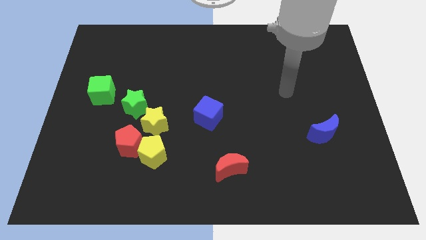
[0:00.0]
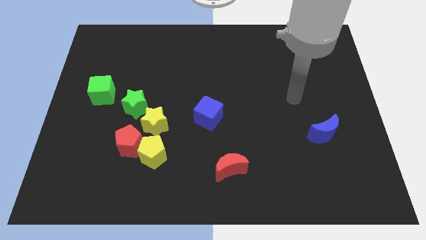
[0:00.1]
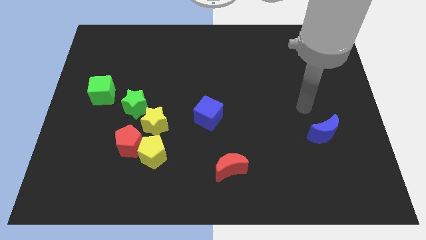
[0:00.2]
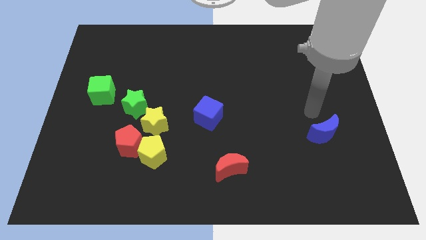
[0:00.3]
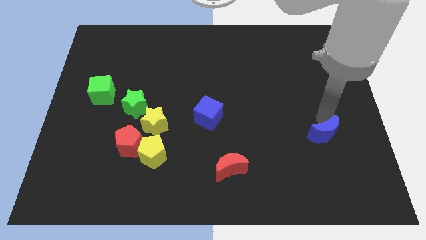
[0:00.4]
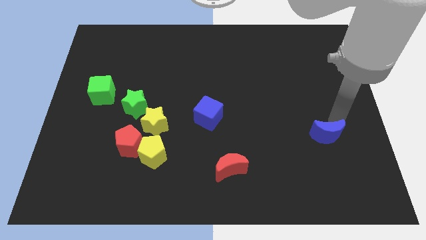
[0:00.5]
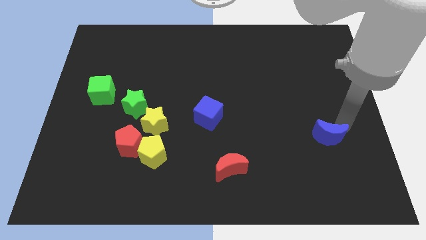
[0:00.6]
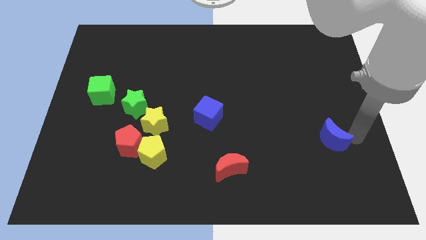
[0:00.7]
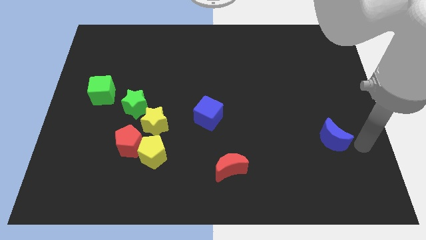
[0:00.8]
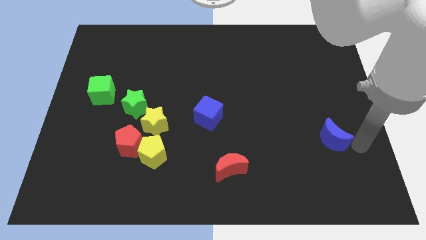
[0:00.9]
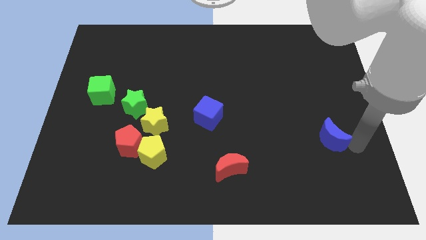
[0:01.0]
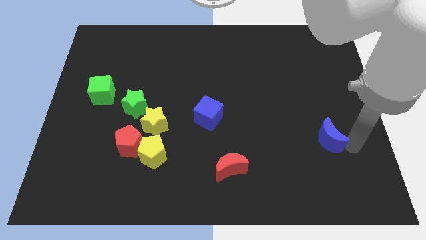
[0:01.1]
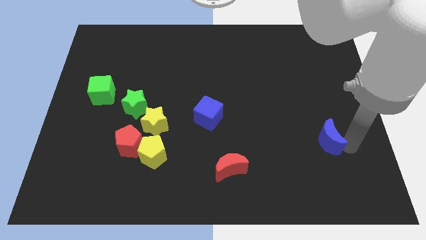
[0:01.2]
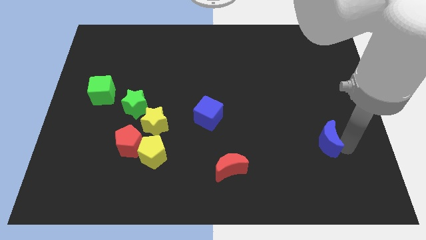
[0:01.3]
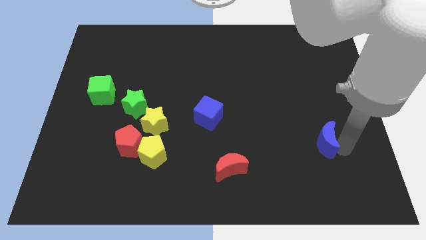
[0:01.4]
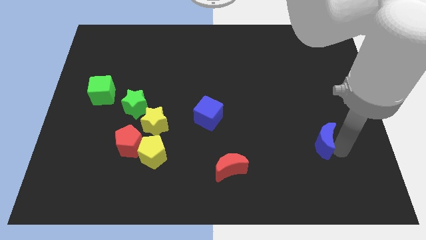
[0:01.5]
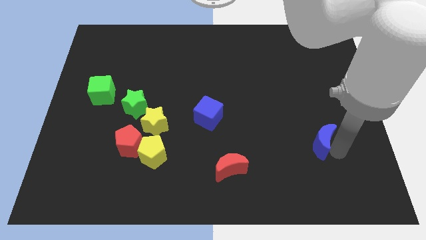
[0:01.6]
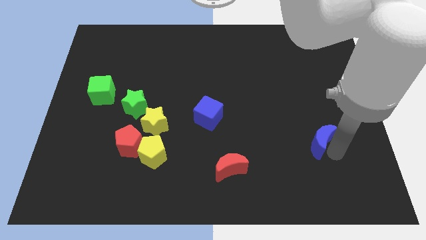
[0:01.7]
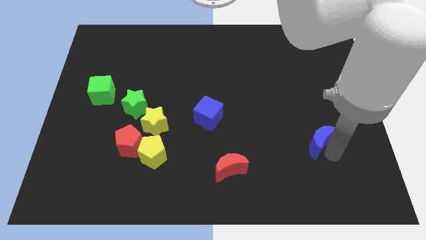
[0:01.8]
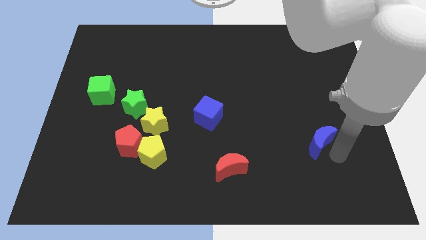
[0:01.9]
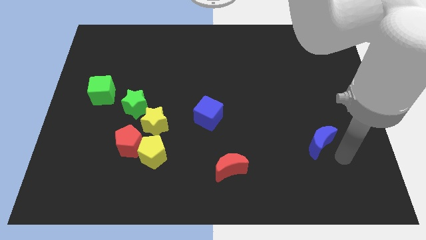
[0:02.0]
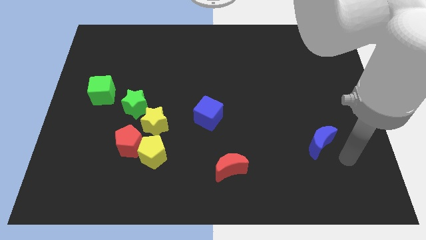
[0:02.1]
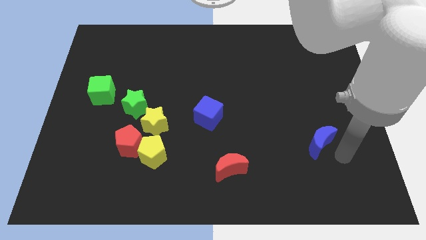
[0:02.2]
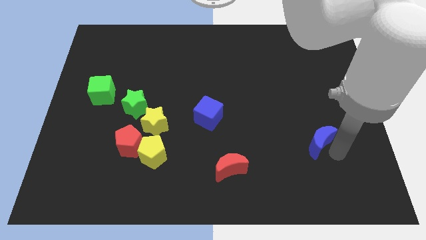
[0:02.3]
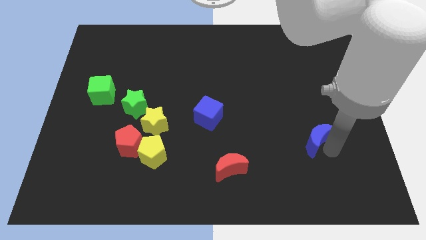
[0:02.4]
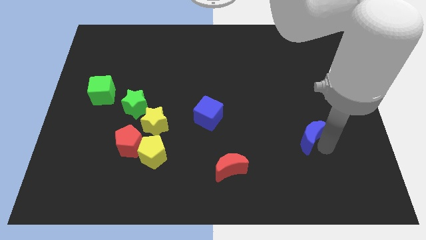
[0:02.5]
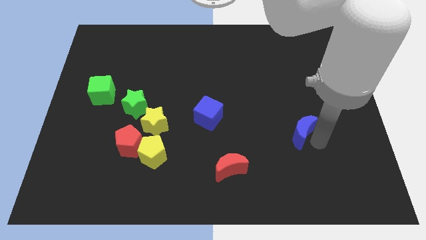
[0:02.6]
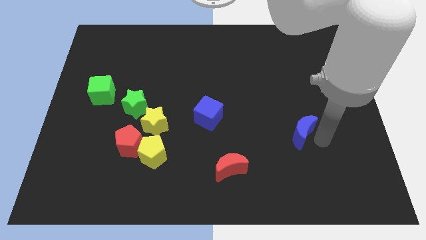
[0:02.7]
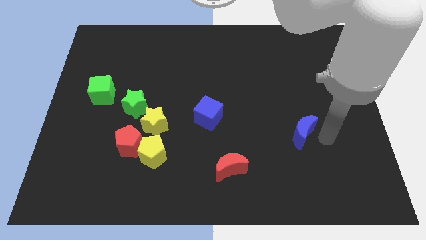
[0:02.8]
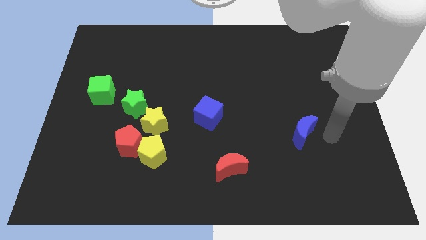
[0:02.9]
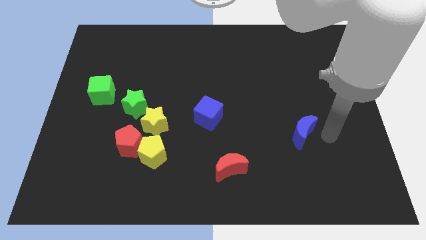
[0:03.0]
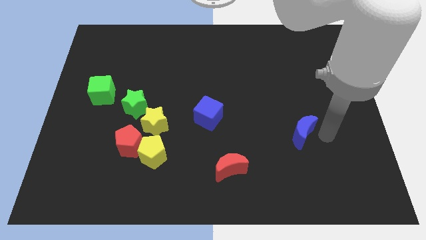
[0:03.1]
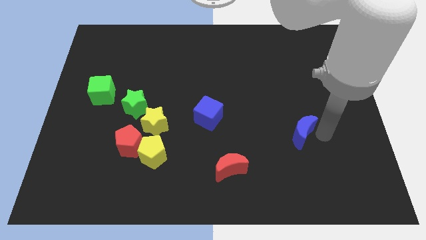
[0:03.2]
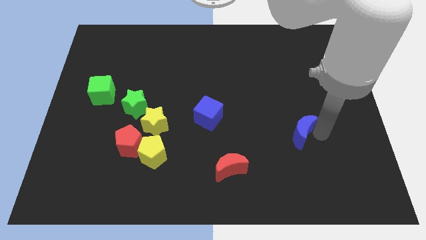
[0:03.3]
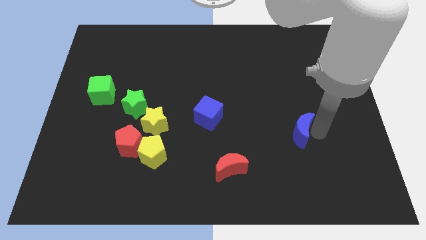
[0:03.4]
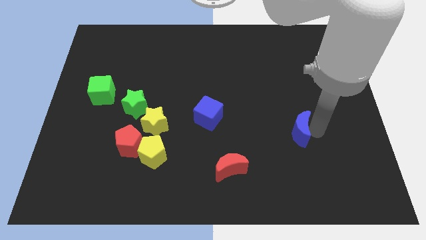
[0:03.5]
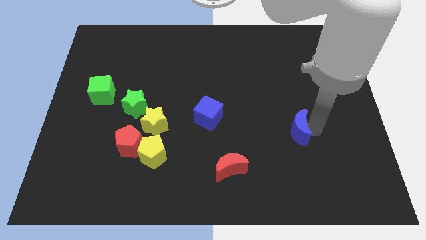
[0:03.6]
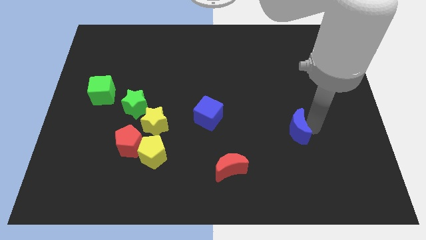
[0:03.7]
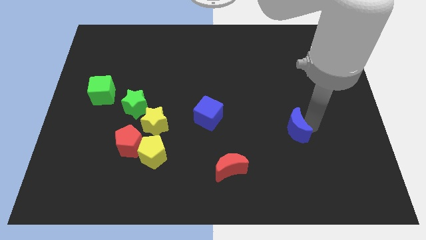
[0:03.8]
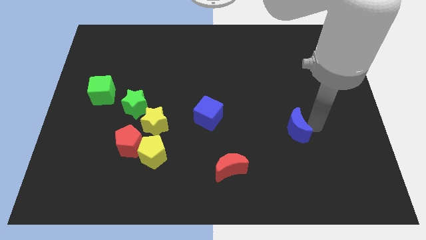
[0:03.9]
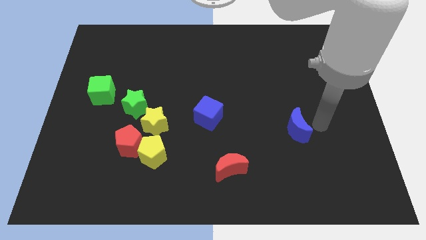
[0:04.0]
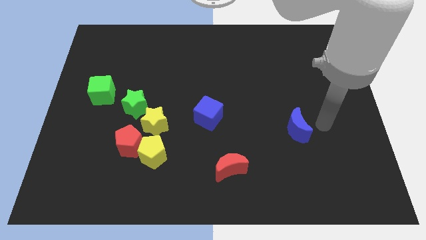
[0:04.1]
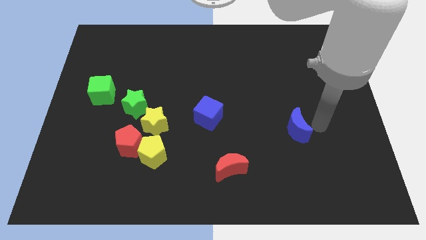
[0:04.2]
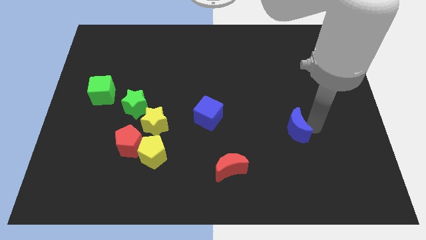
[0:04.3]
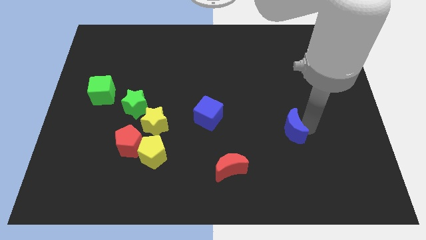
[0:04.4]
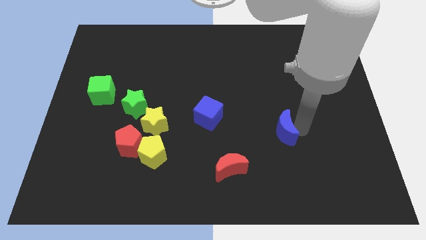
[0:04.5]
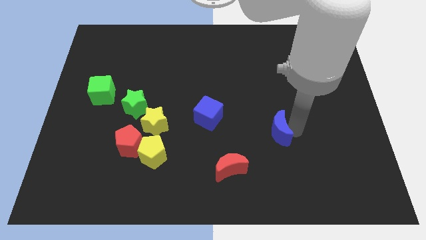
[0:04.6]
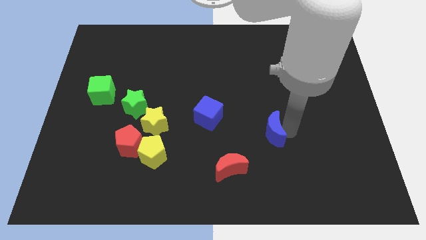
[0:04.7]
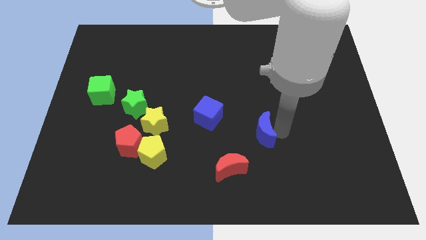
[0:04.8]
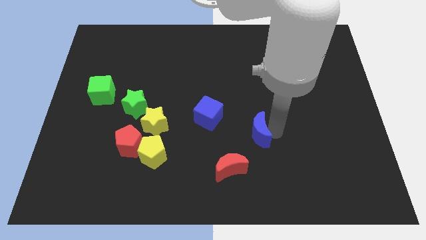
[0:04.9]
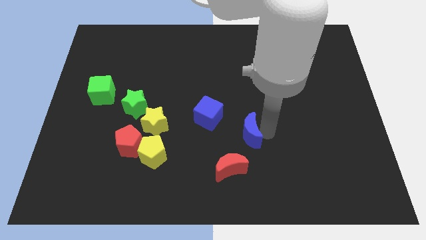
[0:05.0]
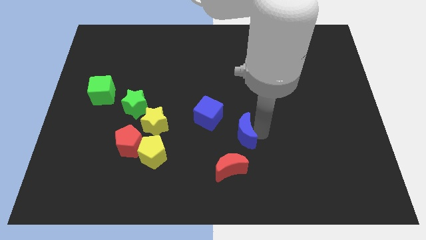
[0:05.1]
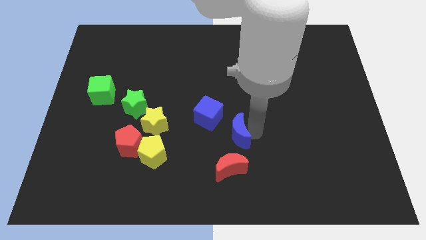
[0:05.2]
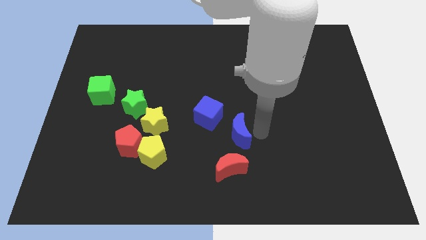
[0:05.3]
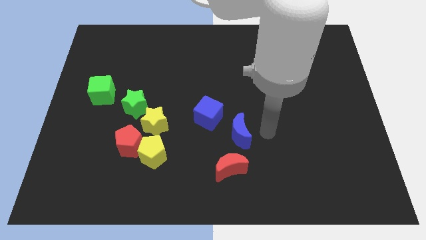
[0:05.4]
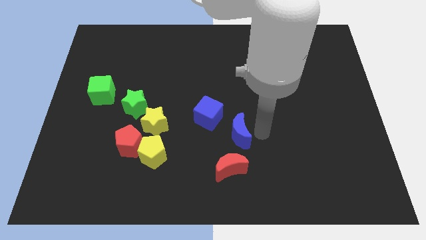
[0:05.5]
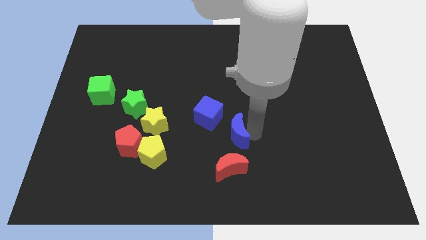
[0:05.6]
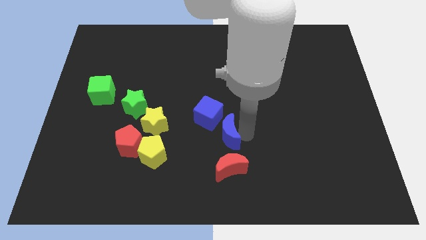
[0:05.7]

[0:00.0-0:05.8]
push the blue moon left

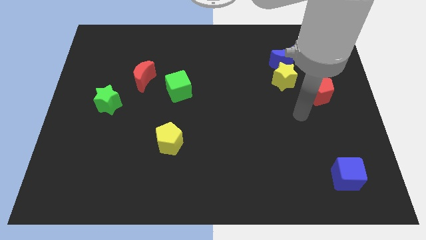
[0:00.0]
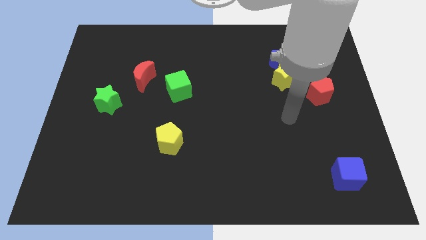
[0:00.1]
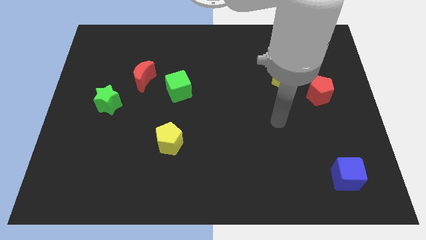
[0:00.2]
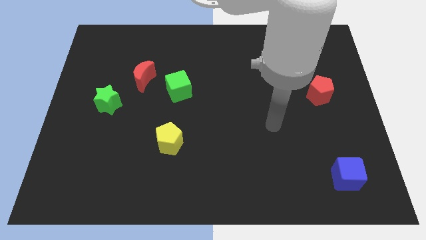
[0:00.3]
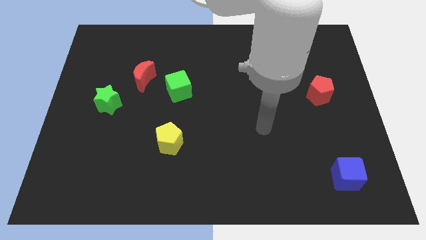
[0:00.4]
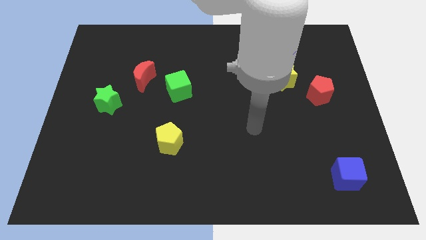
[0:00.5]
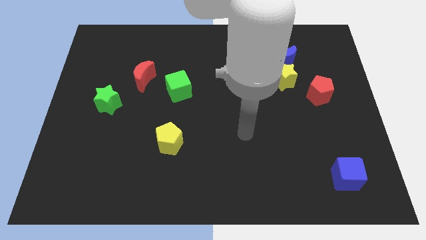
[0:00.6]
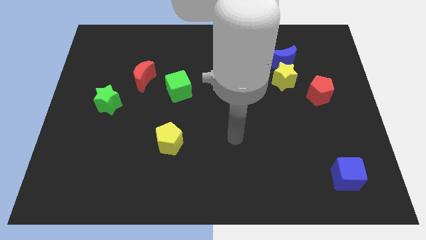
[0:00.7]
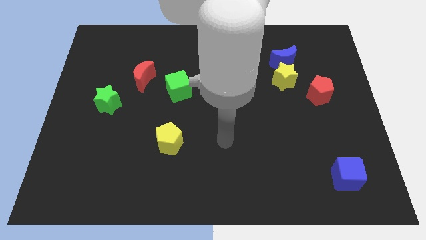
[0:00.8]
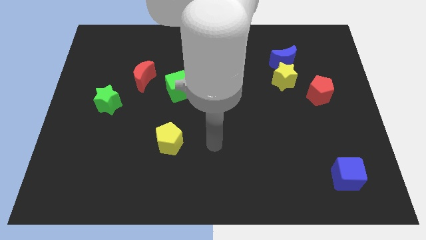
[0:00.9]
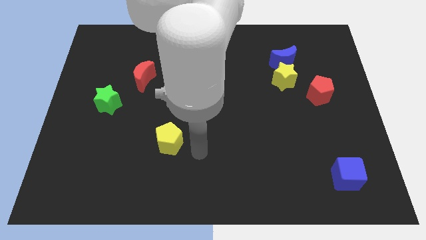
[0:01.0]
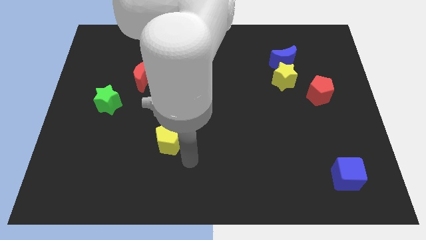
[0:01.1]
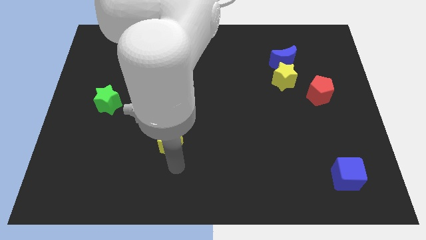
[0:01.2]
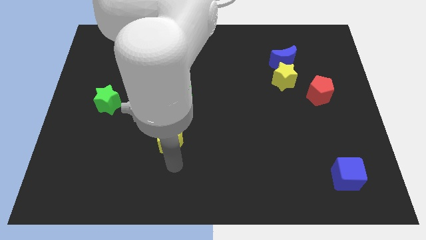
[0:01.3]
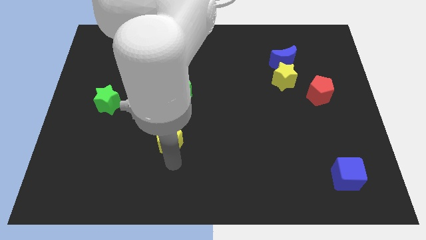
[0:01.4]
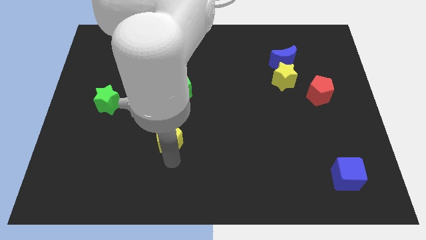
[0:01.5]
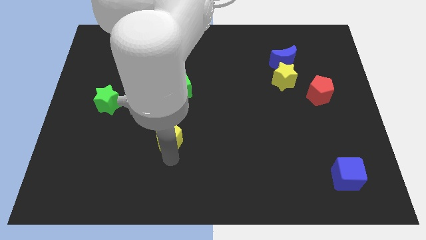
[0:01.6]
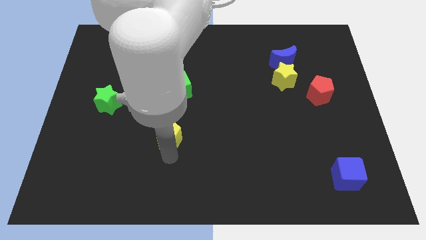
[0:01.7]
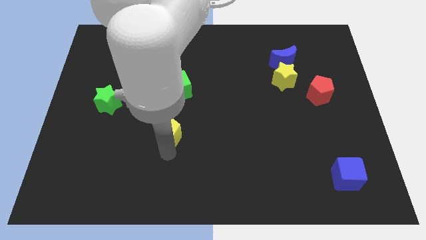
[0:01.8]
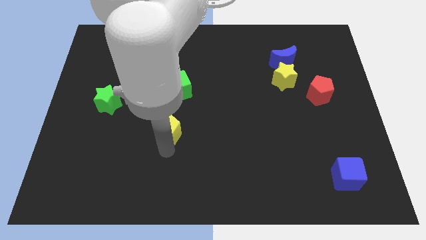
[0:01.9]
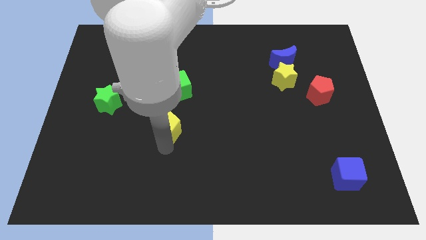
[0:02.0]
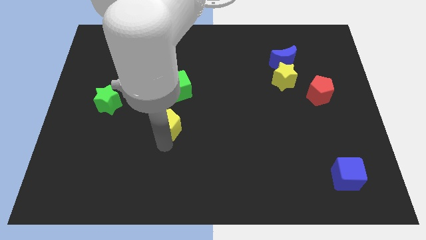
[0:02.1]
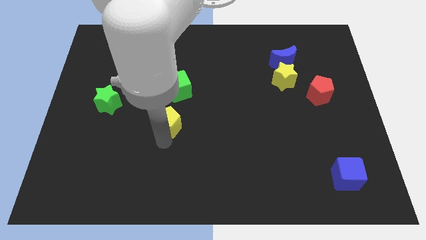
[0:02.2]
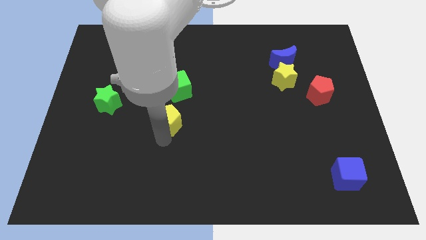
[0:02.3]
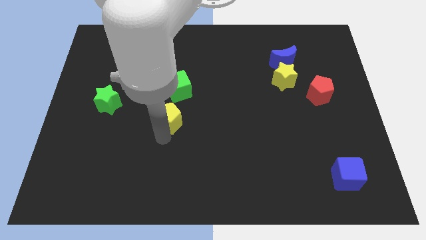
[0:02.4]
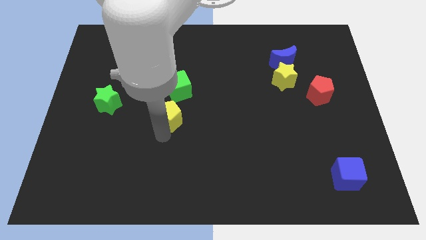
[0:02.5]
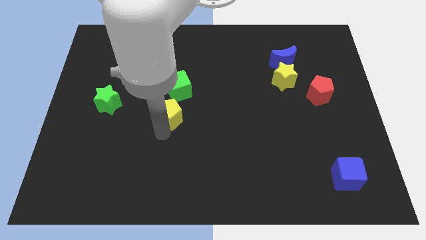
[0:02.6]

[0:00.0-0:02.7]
push the yellow pentagon a bit upwards
